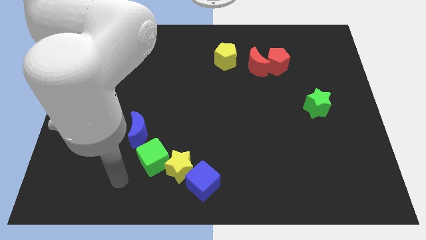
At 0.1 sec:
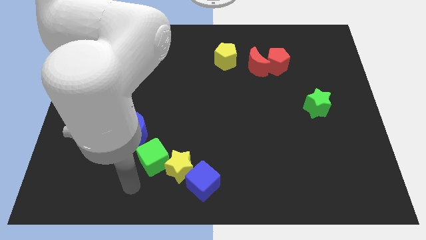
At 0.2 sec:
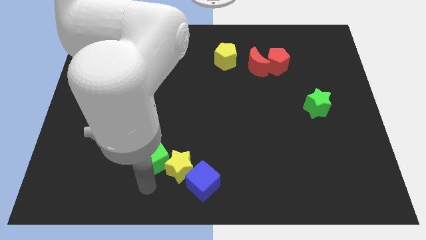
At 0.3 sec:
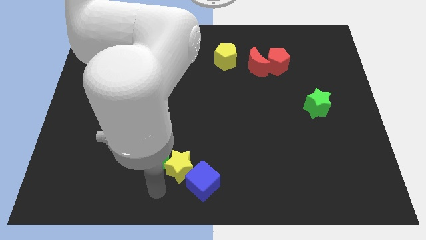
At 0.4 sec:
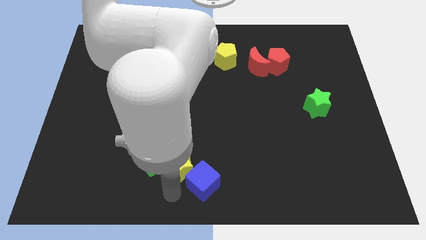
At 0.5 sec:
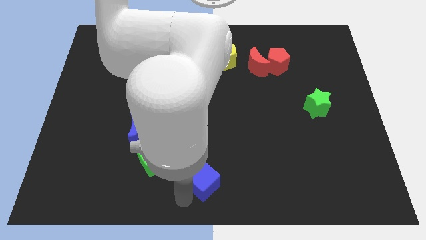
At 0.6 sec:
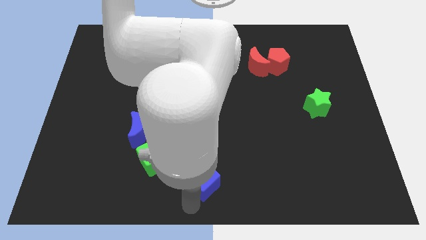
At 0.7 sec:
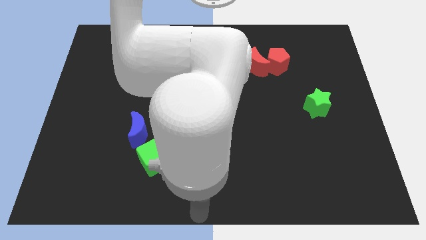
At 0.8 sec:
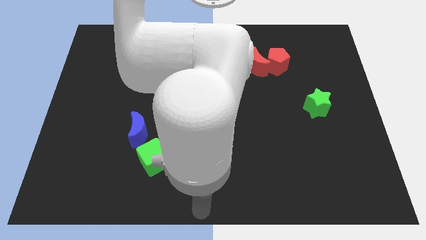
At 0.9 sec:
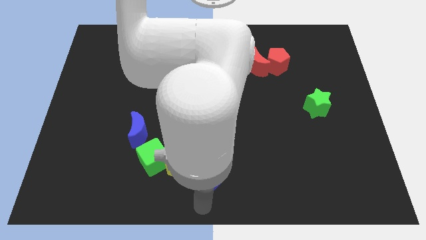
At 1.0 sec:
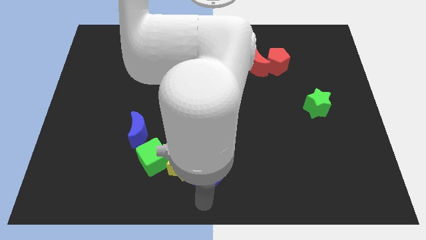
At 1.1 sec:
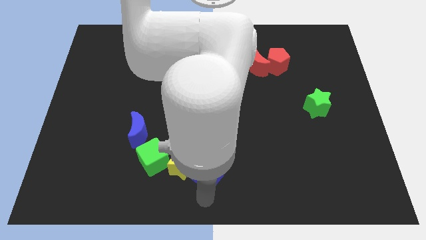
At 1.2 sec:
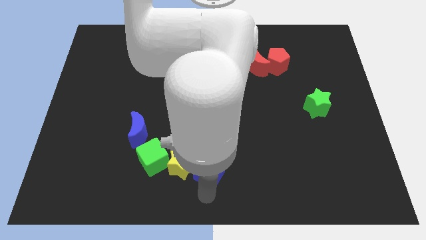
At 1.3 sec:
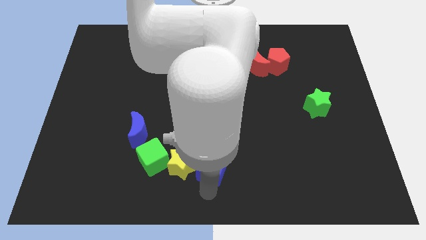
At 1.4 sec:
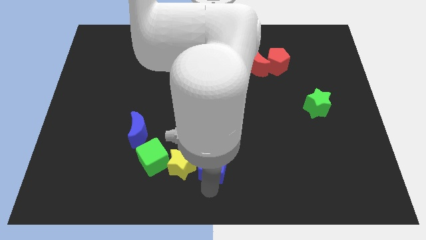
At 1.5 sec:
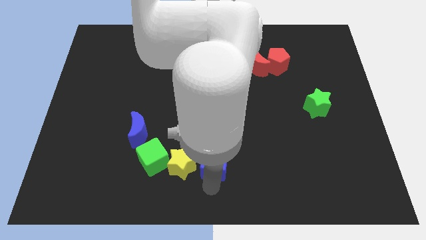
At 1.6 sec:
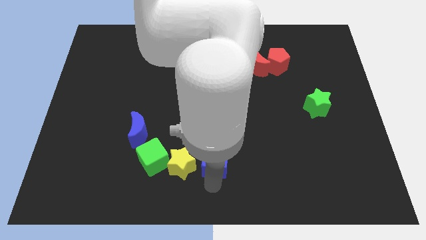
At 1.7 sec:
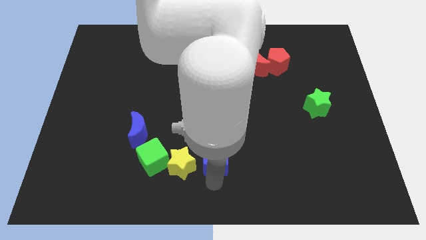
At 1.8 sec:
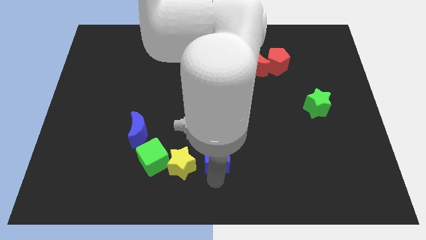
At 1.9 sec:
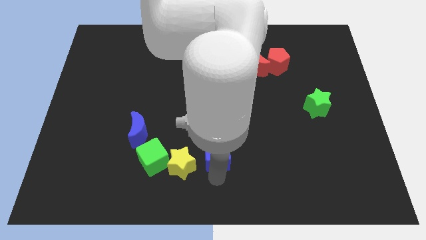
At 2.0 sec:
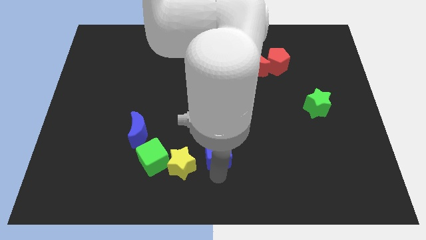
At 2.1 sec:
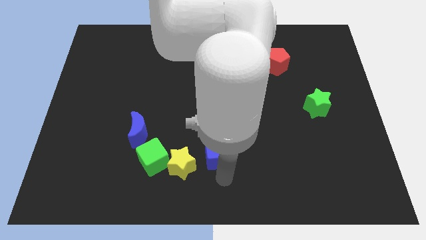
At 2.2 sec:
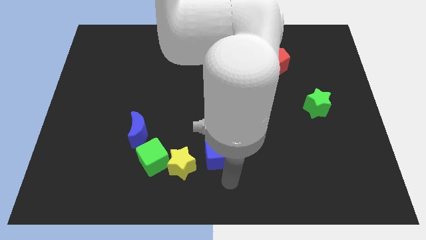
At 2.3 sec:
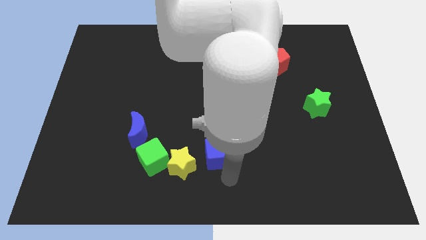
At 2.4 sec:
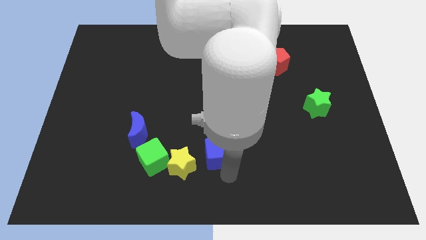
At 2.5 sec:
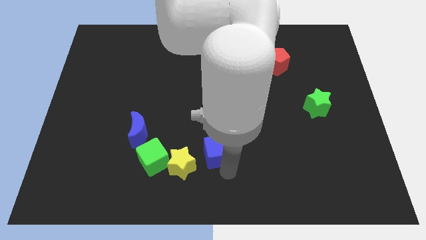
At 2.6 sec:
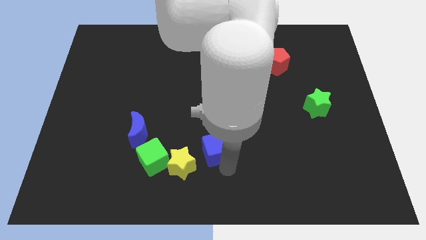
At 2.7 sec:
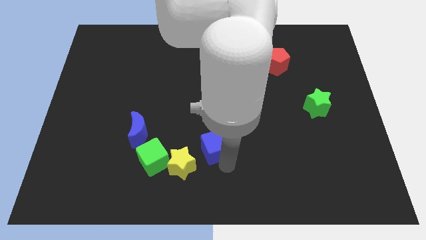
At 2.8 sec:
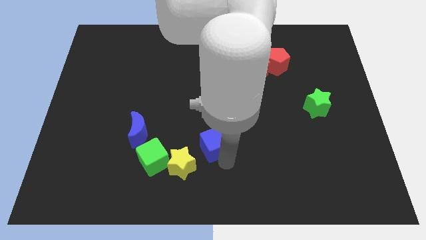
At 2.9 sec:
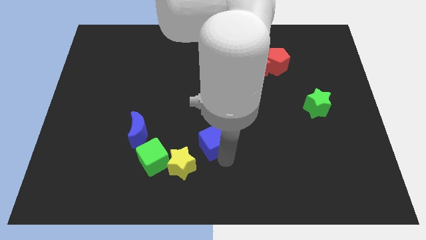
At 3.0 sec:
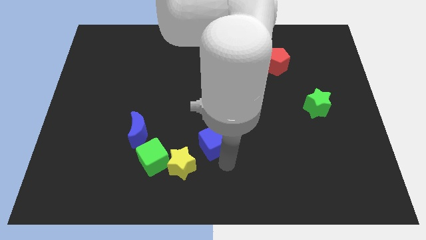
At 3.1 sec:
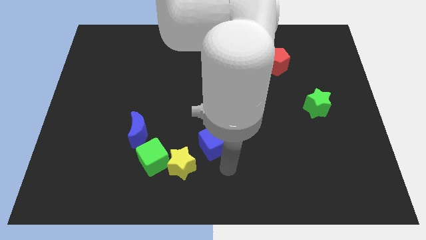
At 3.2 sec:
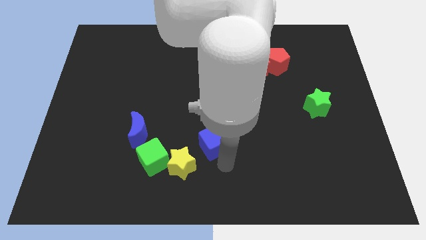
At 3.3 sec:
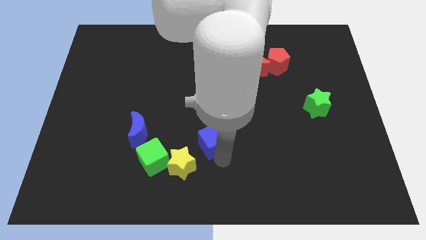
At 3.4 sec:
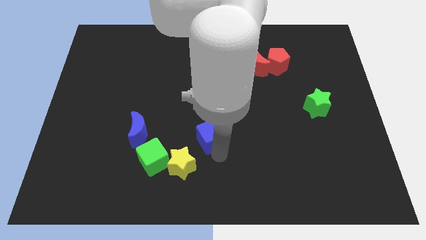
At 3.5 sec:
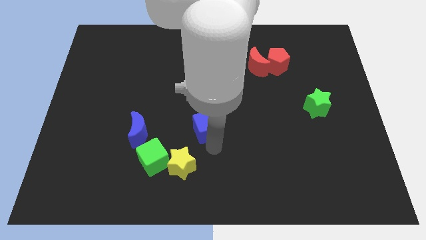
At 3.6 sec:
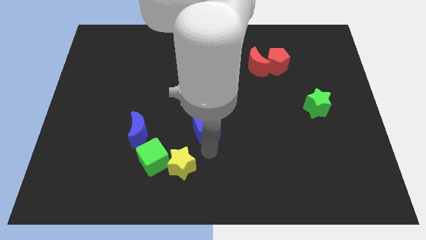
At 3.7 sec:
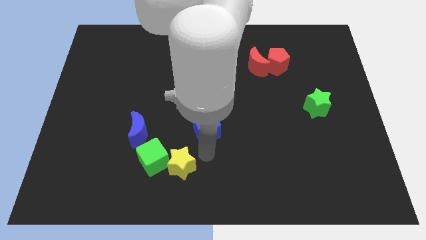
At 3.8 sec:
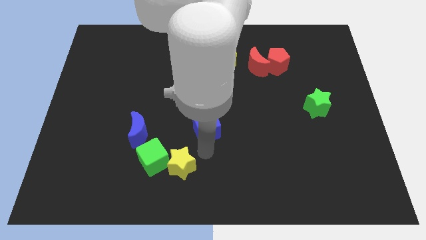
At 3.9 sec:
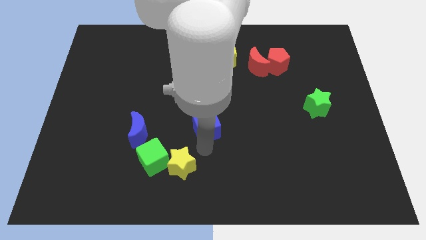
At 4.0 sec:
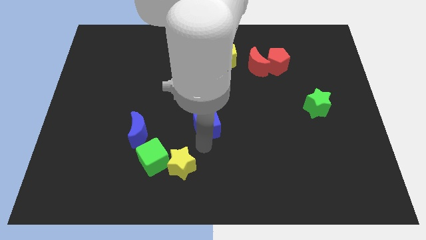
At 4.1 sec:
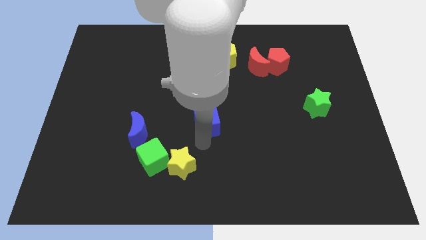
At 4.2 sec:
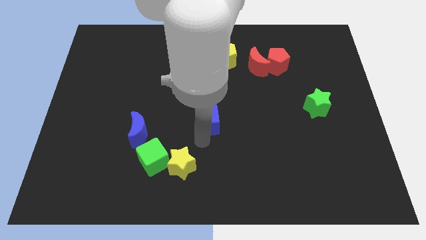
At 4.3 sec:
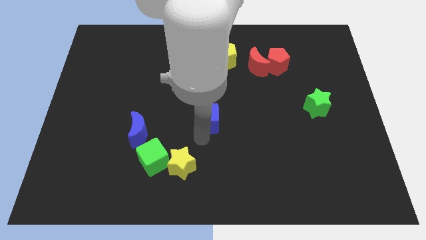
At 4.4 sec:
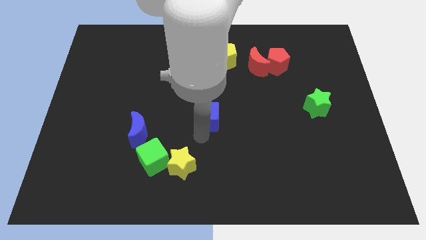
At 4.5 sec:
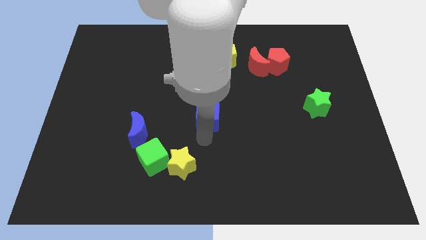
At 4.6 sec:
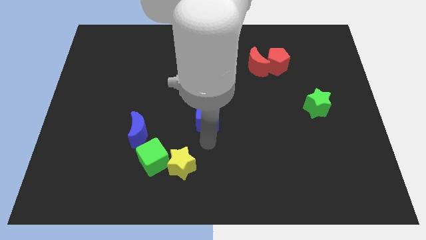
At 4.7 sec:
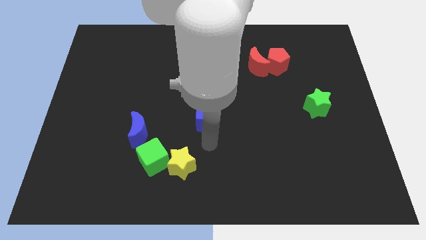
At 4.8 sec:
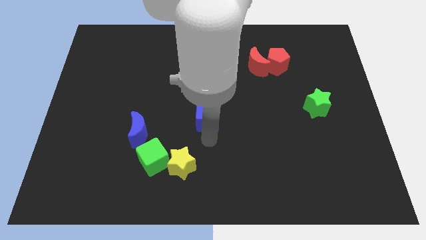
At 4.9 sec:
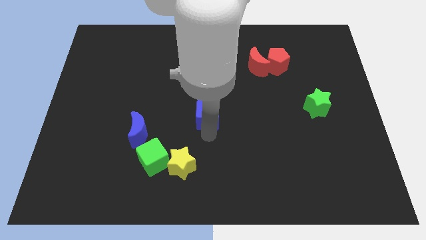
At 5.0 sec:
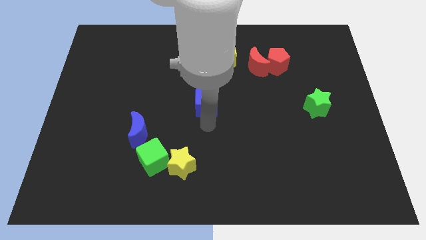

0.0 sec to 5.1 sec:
push the blue cube up

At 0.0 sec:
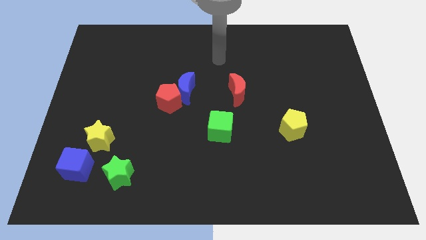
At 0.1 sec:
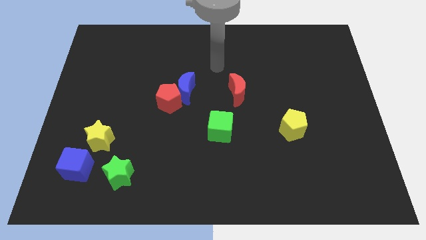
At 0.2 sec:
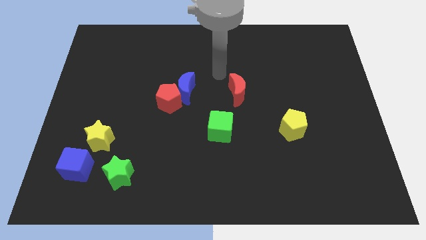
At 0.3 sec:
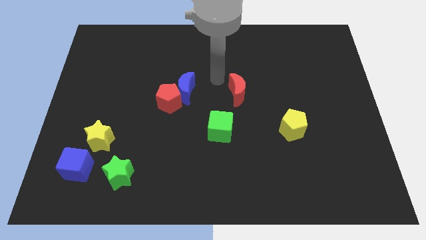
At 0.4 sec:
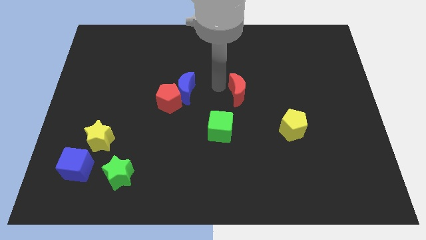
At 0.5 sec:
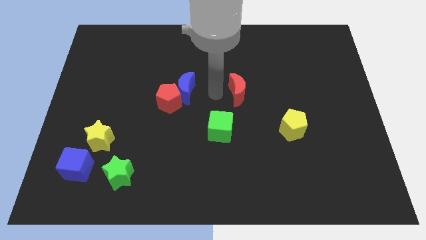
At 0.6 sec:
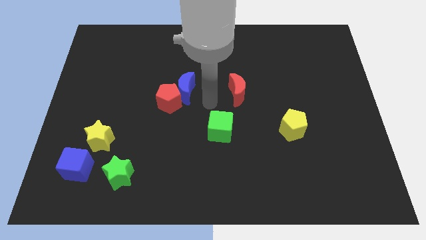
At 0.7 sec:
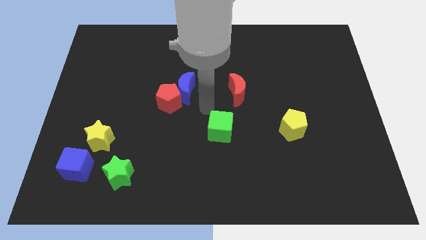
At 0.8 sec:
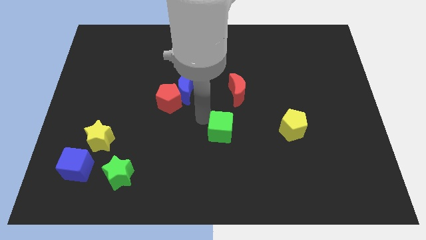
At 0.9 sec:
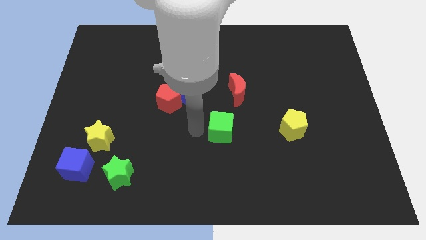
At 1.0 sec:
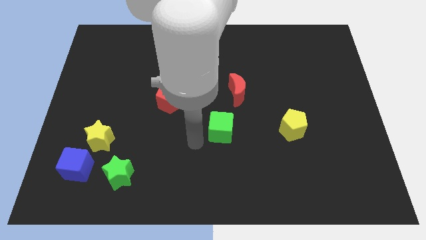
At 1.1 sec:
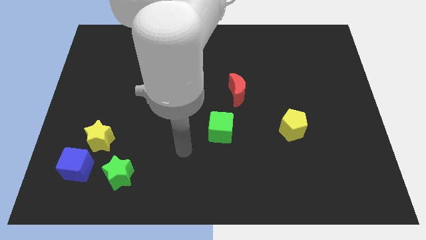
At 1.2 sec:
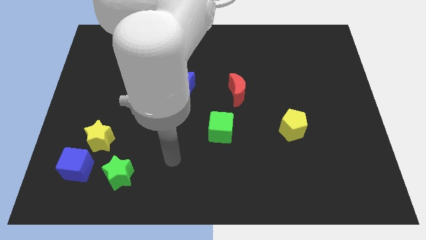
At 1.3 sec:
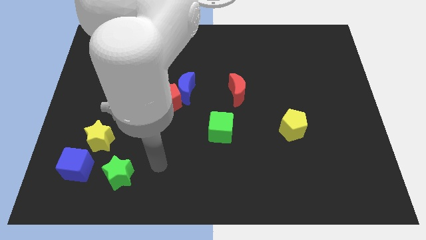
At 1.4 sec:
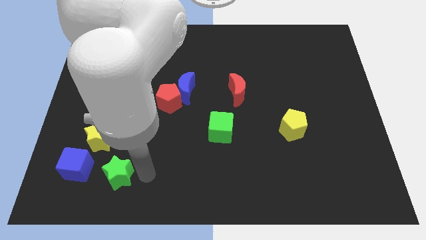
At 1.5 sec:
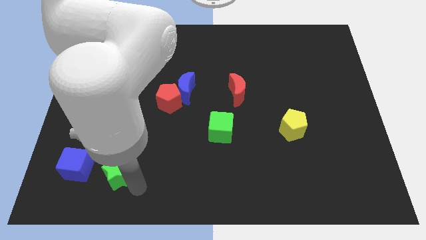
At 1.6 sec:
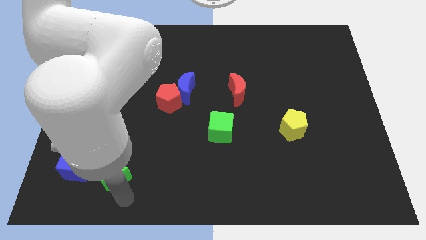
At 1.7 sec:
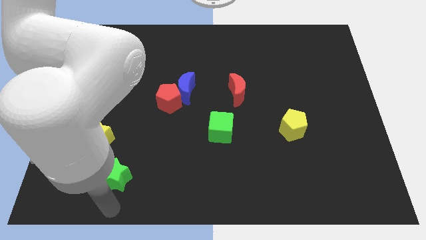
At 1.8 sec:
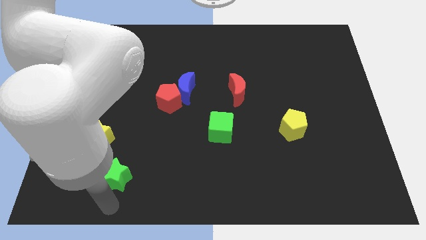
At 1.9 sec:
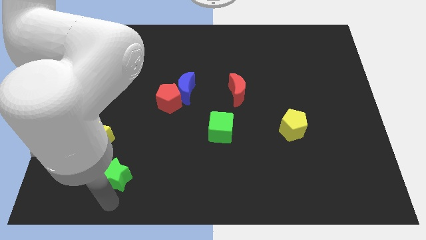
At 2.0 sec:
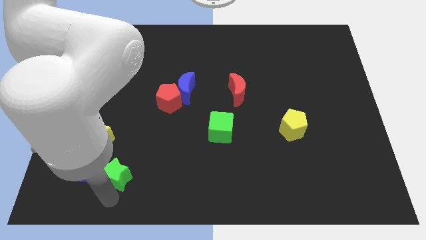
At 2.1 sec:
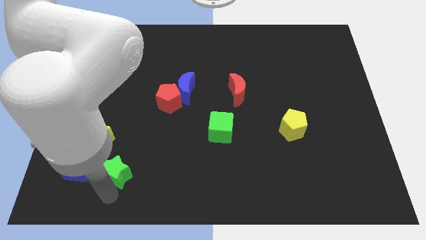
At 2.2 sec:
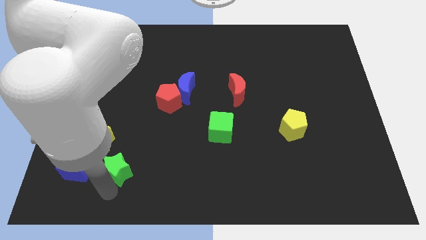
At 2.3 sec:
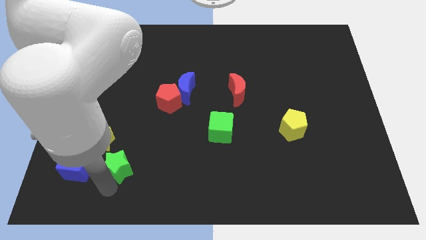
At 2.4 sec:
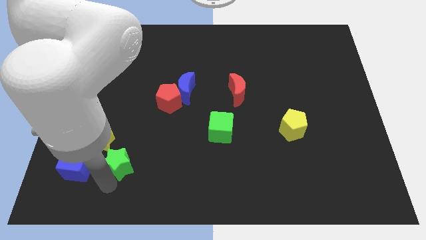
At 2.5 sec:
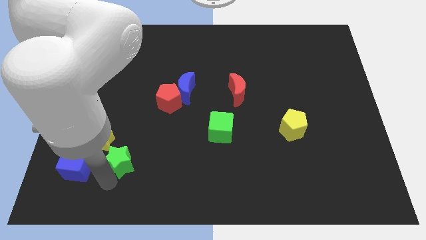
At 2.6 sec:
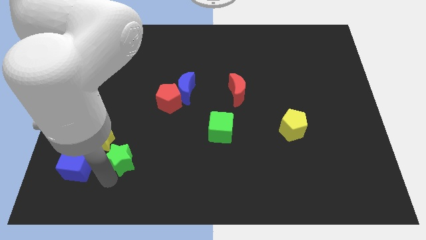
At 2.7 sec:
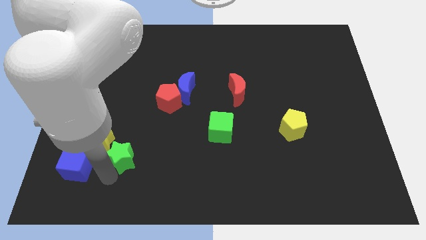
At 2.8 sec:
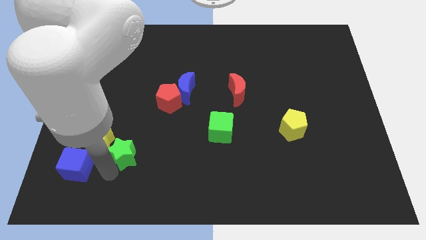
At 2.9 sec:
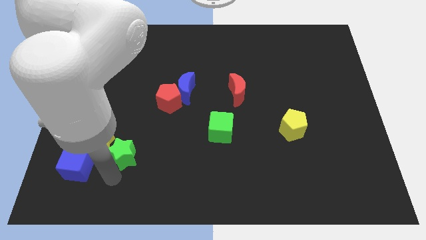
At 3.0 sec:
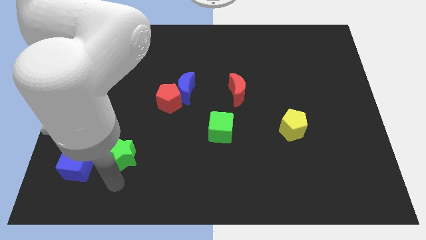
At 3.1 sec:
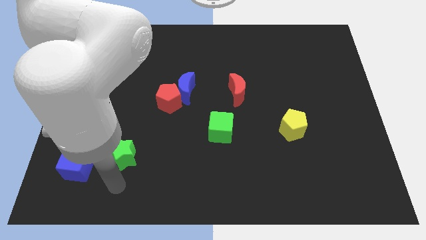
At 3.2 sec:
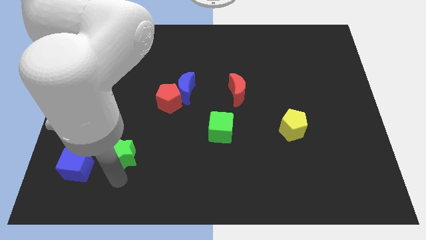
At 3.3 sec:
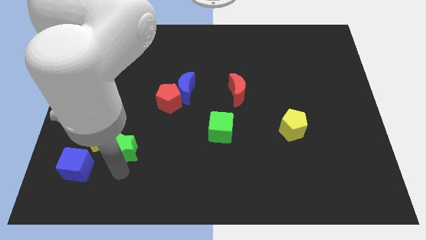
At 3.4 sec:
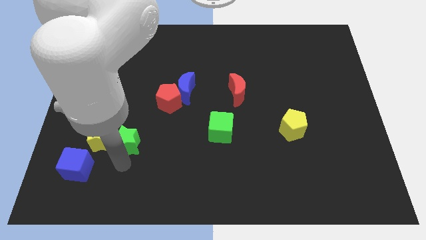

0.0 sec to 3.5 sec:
slide the green star upwards somewhat
